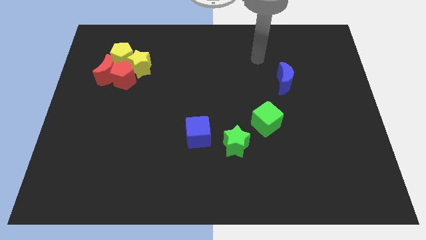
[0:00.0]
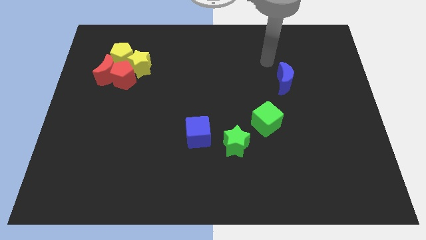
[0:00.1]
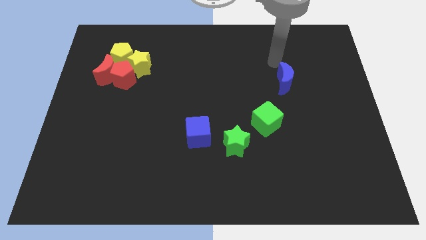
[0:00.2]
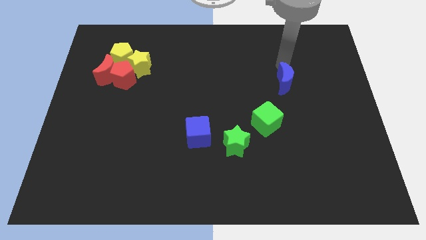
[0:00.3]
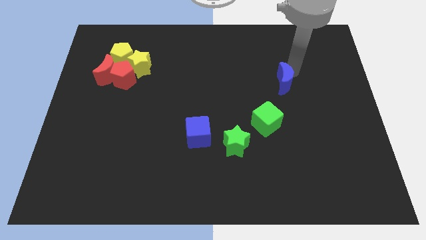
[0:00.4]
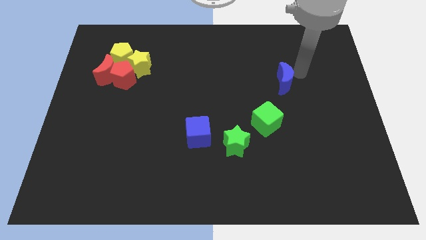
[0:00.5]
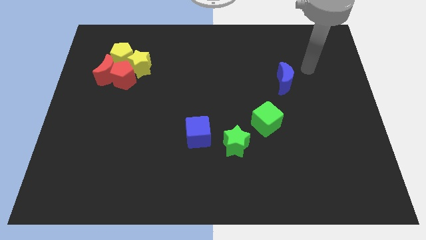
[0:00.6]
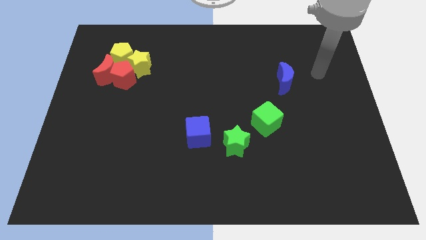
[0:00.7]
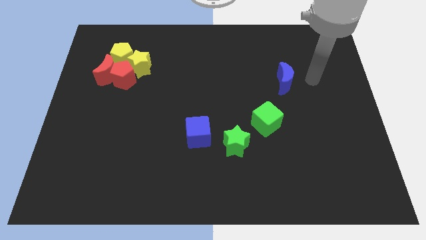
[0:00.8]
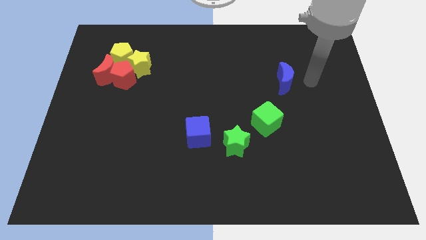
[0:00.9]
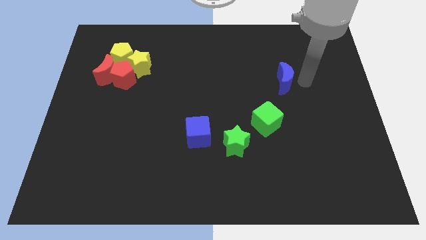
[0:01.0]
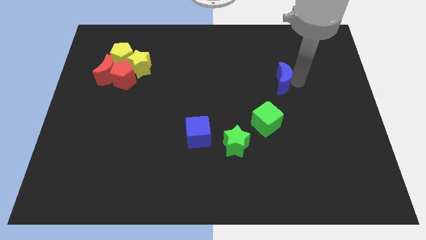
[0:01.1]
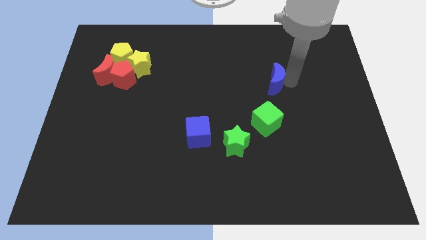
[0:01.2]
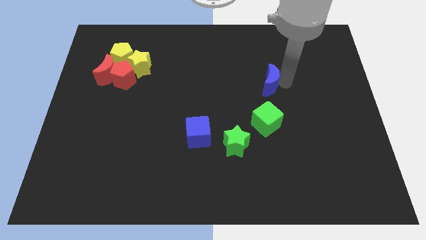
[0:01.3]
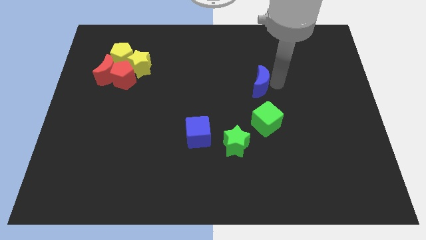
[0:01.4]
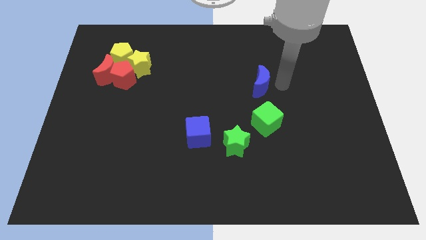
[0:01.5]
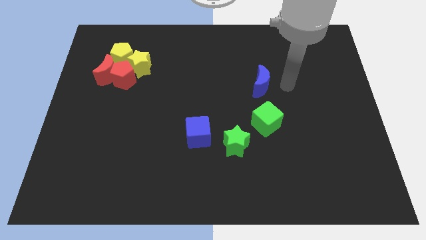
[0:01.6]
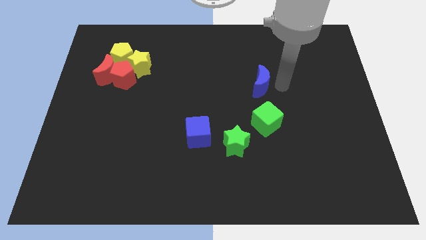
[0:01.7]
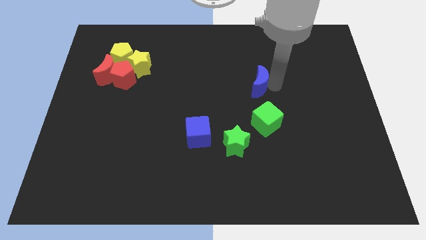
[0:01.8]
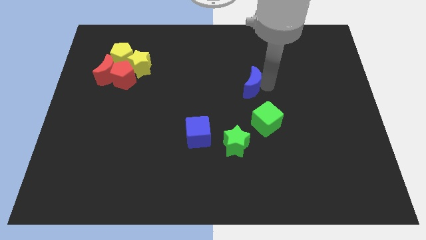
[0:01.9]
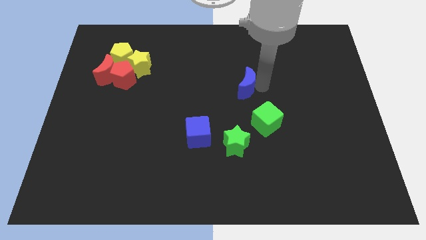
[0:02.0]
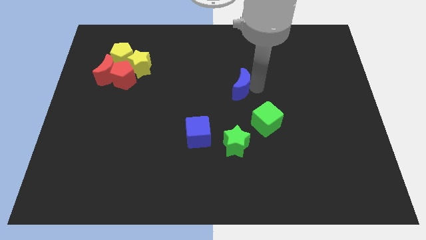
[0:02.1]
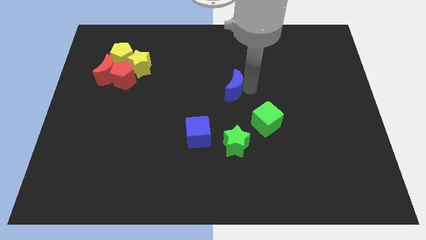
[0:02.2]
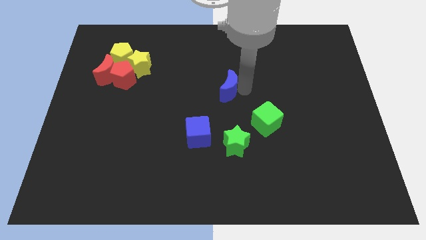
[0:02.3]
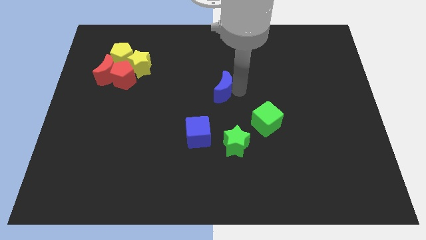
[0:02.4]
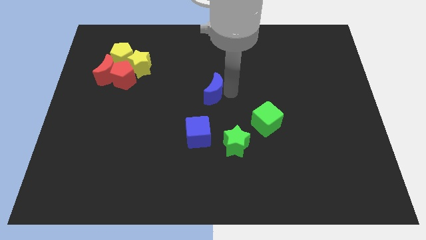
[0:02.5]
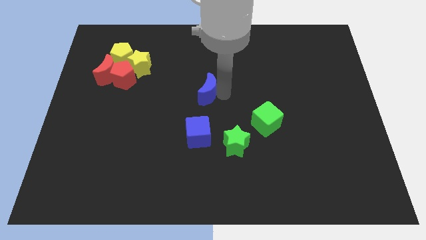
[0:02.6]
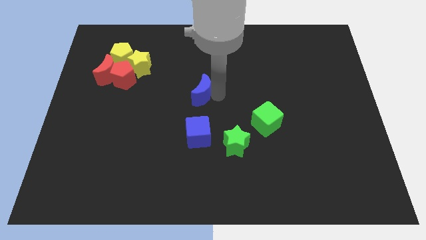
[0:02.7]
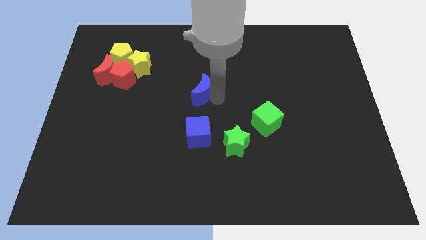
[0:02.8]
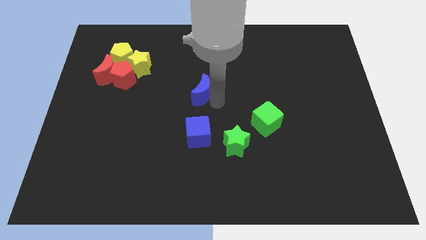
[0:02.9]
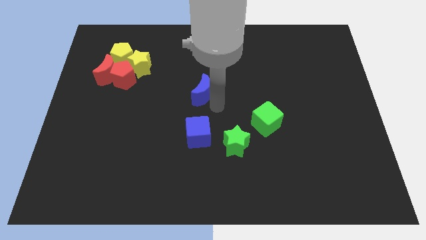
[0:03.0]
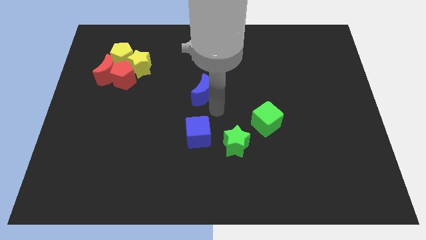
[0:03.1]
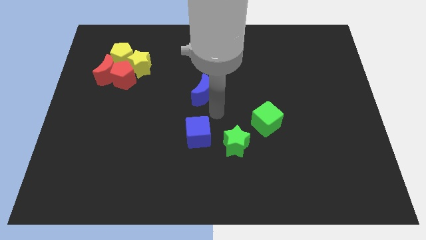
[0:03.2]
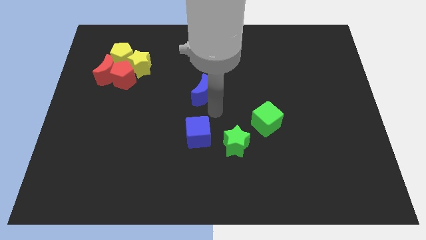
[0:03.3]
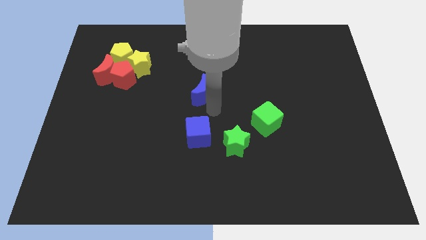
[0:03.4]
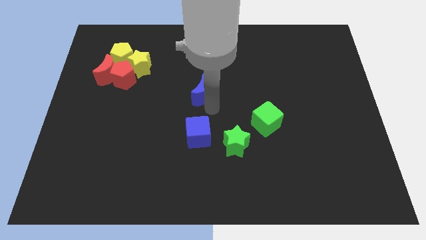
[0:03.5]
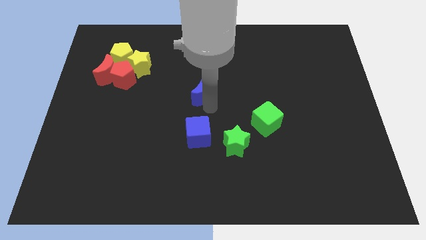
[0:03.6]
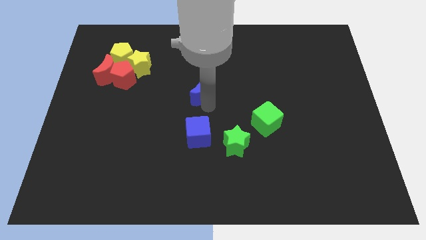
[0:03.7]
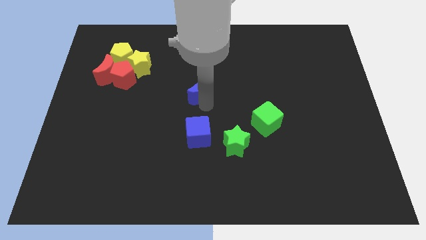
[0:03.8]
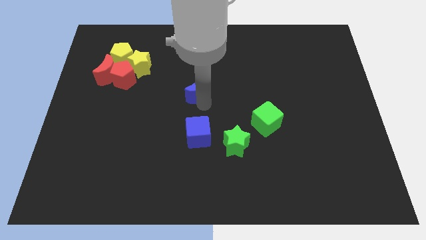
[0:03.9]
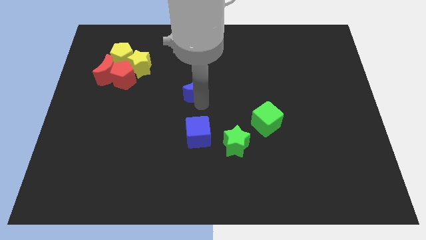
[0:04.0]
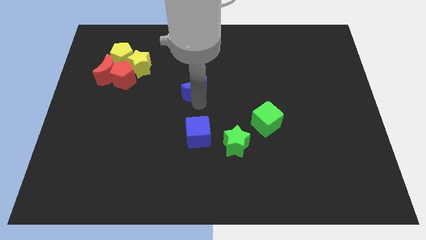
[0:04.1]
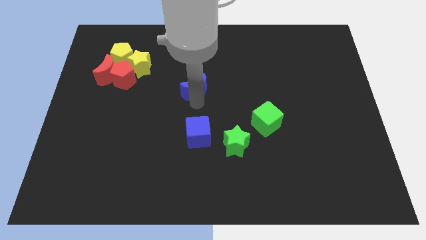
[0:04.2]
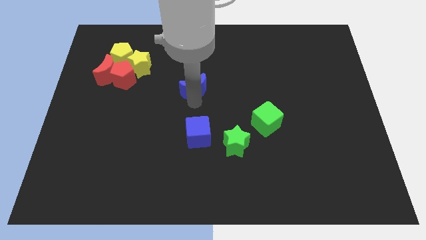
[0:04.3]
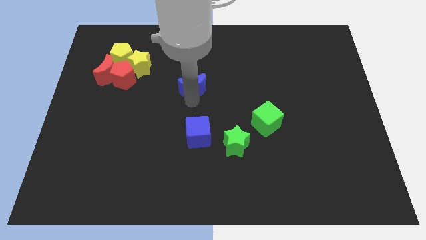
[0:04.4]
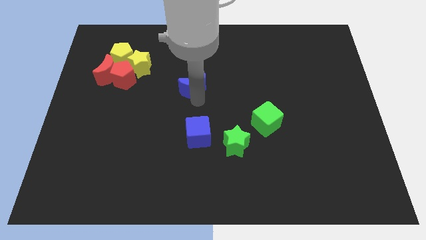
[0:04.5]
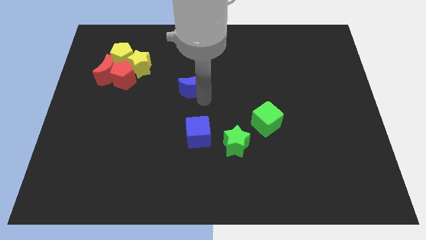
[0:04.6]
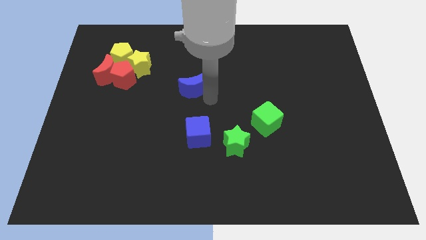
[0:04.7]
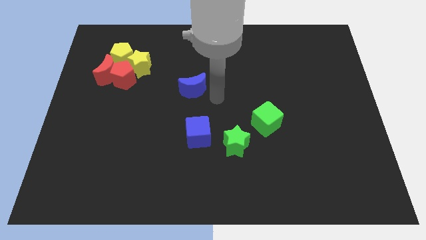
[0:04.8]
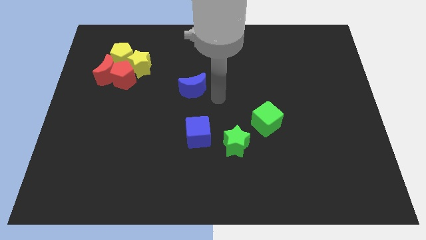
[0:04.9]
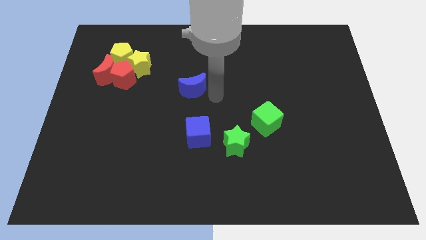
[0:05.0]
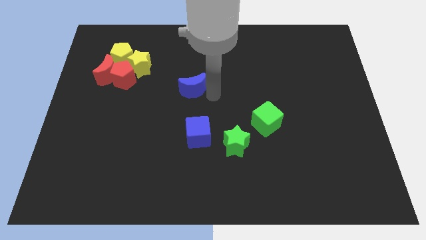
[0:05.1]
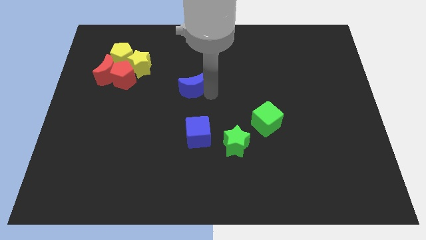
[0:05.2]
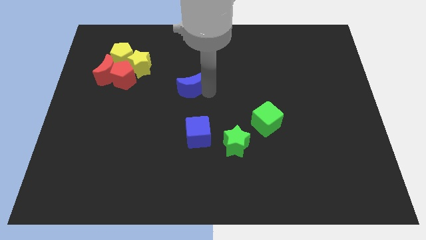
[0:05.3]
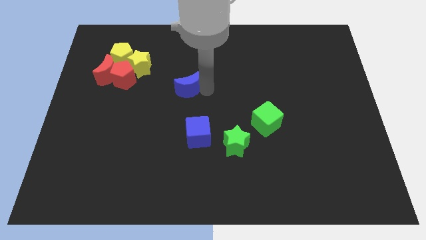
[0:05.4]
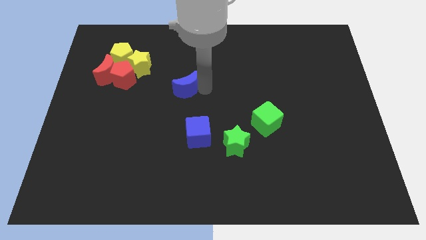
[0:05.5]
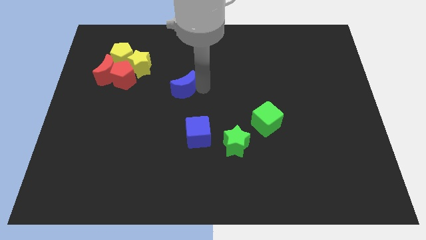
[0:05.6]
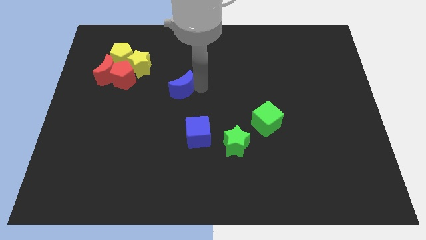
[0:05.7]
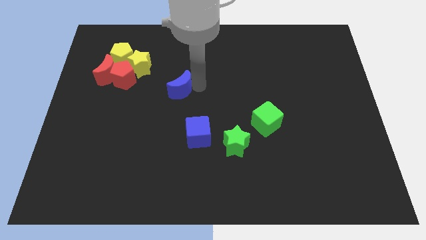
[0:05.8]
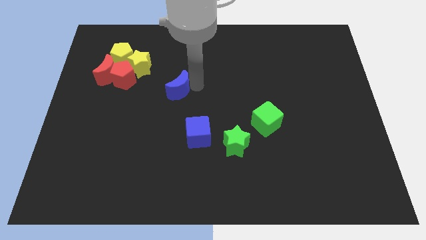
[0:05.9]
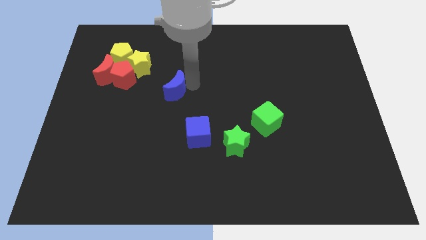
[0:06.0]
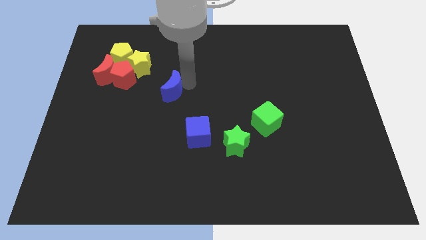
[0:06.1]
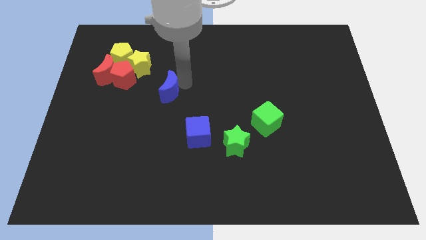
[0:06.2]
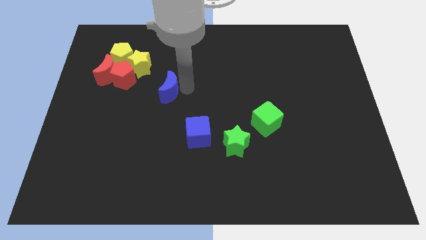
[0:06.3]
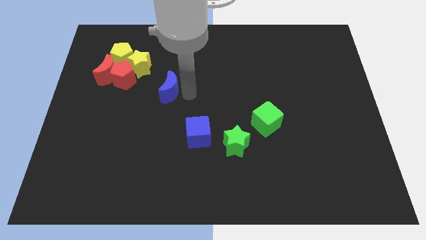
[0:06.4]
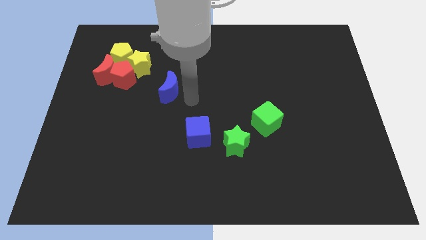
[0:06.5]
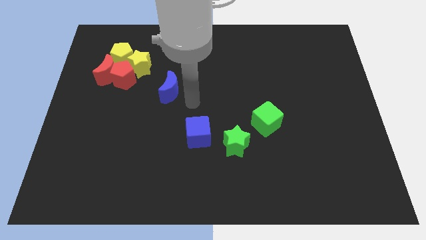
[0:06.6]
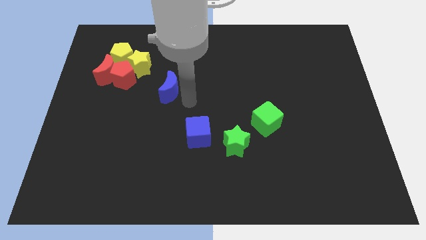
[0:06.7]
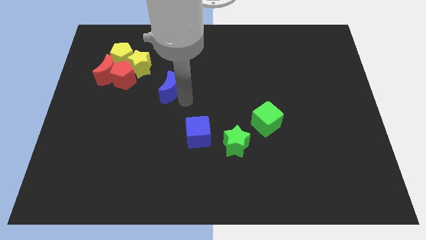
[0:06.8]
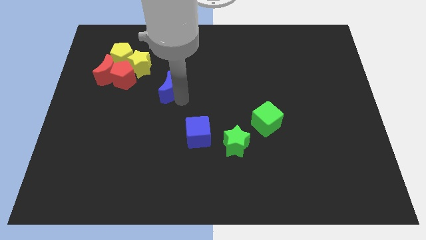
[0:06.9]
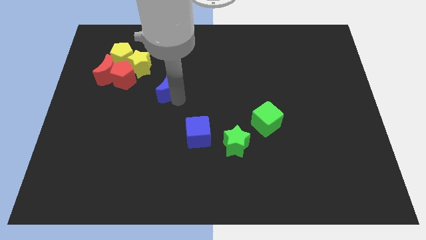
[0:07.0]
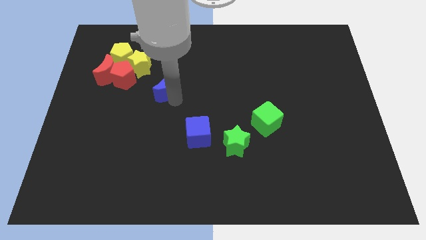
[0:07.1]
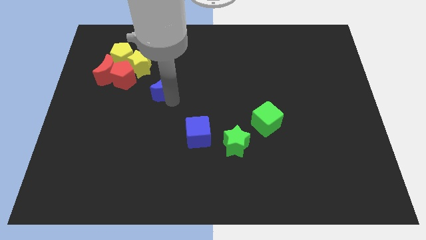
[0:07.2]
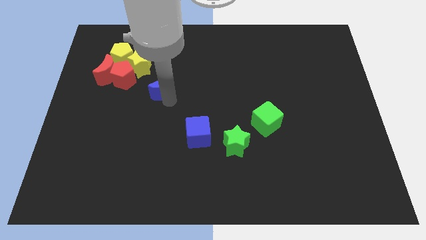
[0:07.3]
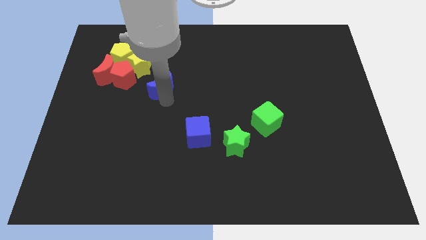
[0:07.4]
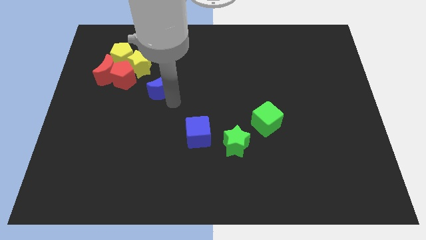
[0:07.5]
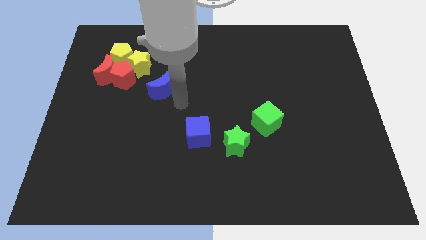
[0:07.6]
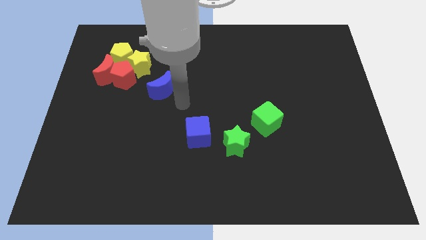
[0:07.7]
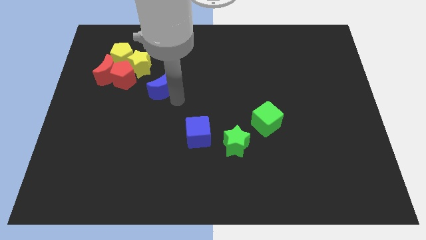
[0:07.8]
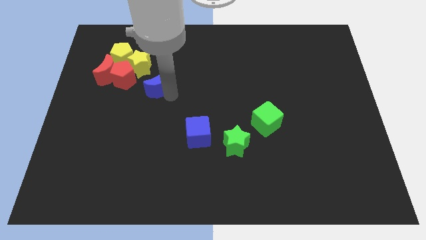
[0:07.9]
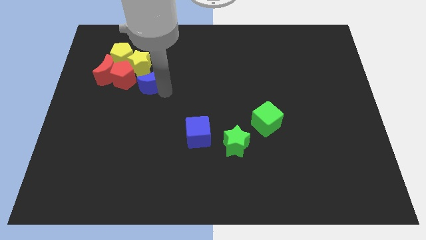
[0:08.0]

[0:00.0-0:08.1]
put the blue moon to the bottom right side of the yellow pentagon
